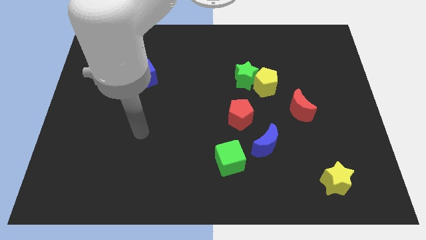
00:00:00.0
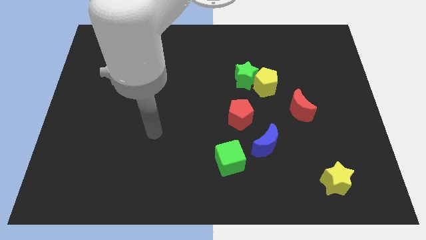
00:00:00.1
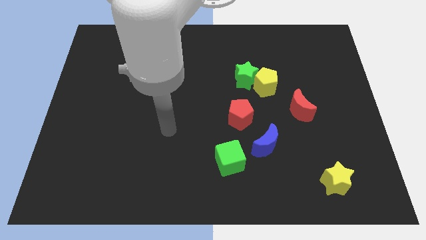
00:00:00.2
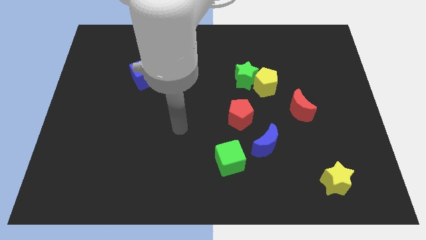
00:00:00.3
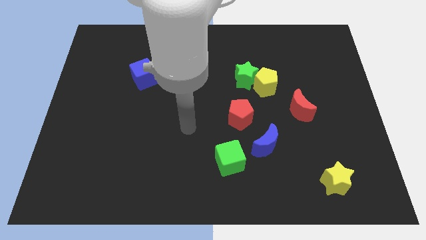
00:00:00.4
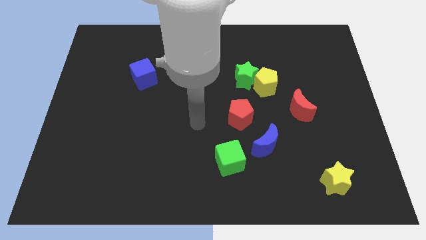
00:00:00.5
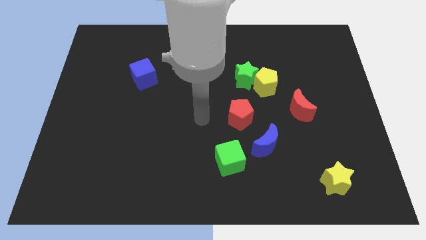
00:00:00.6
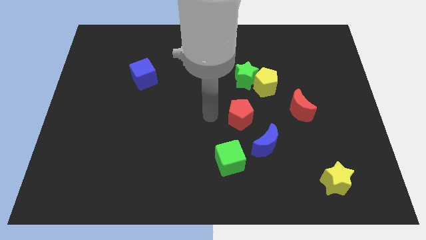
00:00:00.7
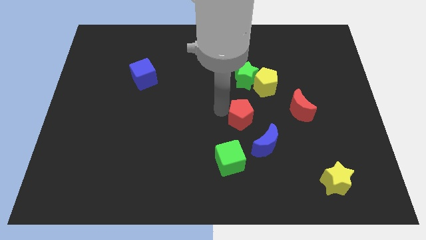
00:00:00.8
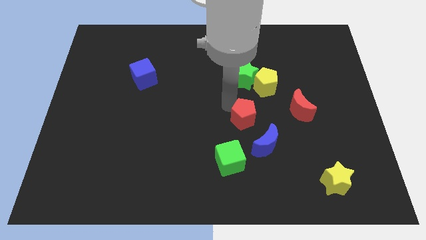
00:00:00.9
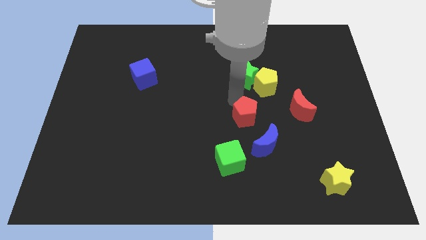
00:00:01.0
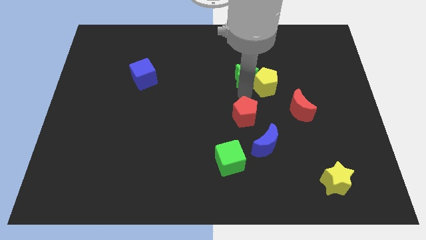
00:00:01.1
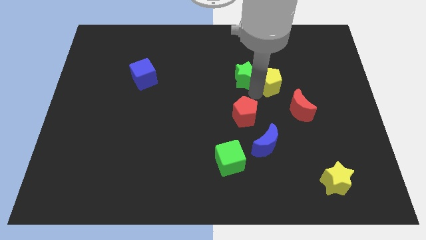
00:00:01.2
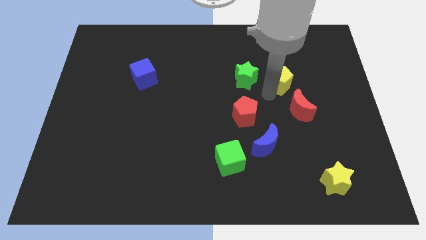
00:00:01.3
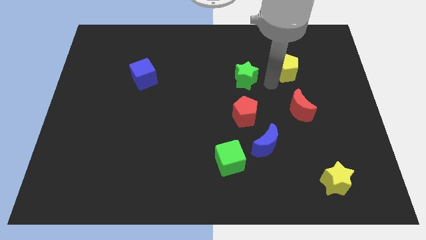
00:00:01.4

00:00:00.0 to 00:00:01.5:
separate the green star from the yellow pentagon

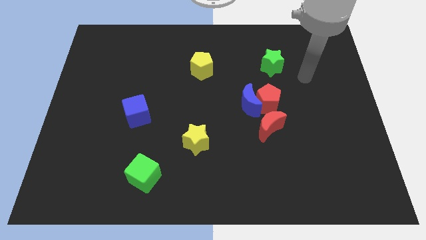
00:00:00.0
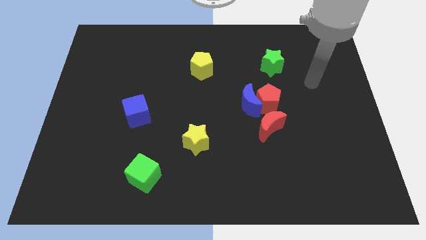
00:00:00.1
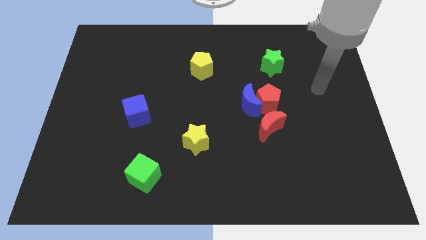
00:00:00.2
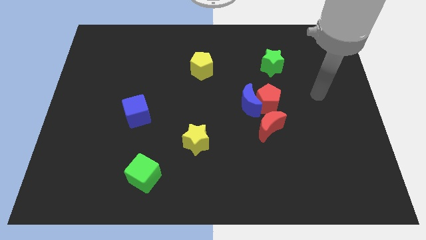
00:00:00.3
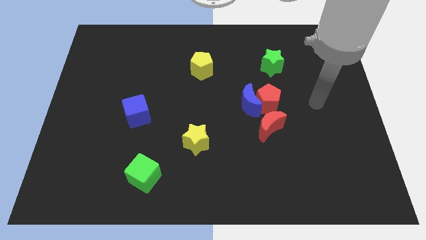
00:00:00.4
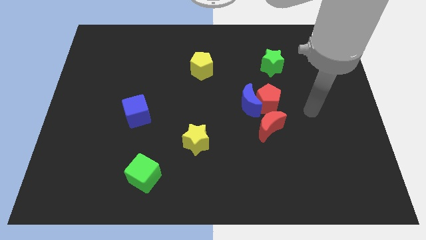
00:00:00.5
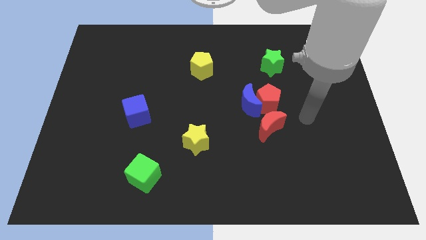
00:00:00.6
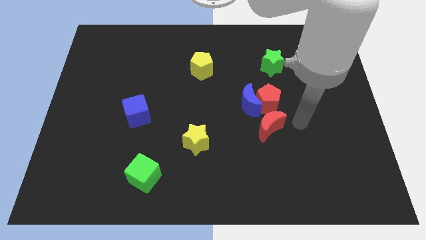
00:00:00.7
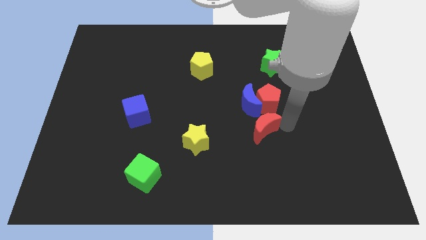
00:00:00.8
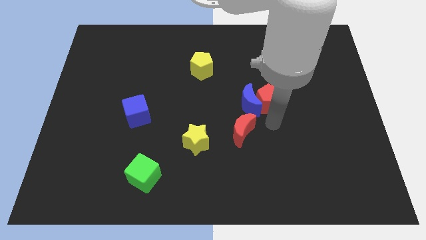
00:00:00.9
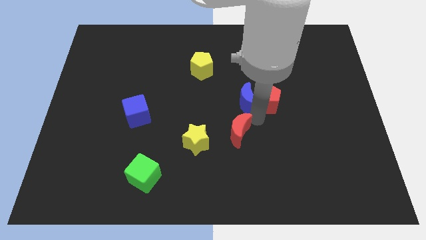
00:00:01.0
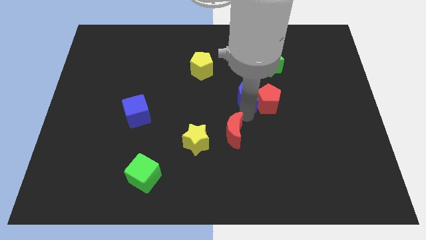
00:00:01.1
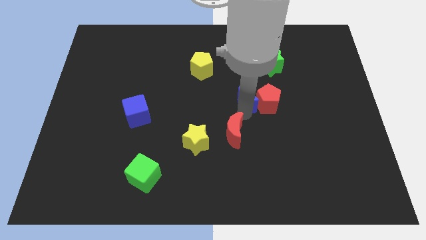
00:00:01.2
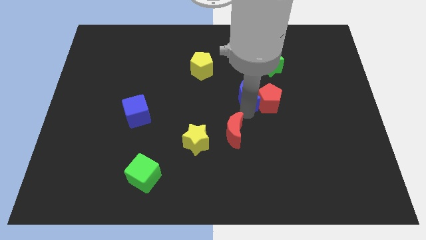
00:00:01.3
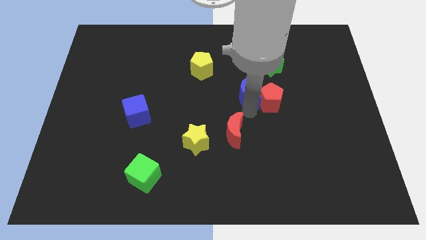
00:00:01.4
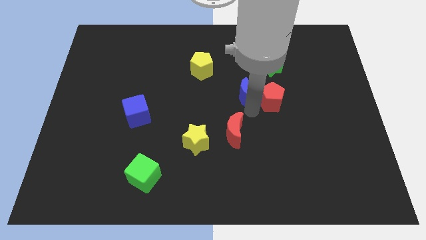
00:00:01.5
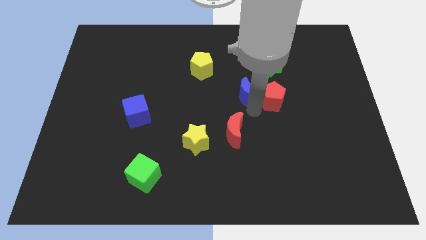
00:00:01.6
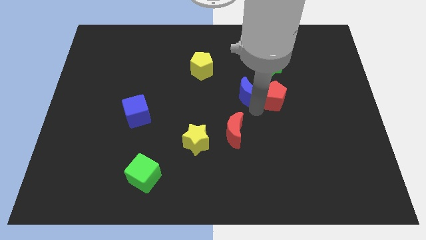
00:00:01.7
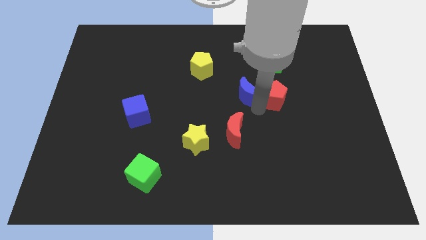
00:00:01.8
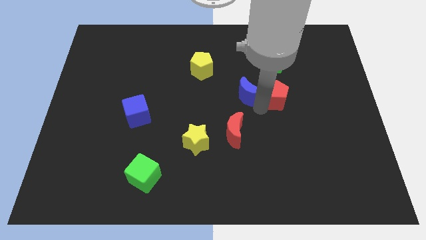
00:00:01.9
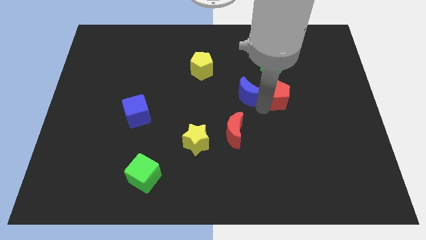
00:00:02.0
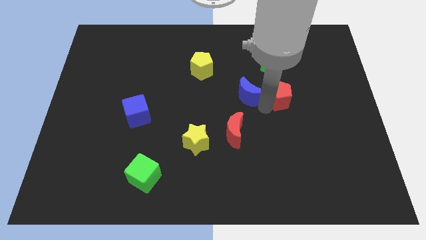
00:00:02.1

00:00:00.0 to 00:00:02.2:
pull the red pentagon apart from the blue moon and red moon

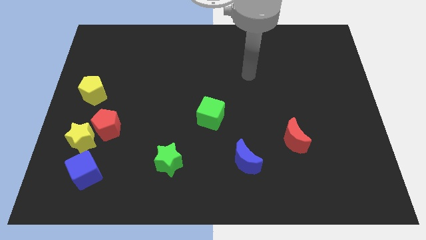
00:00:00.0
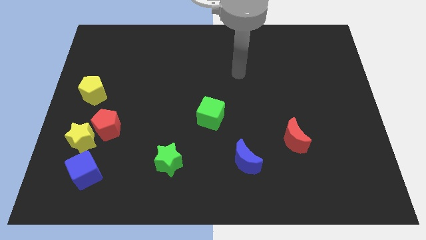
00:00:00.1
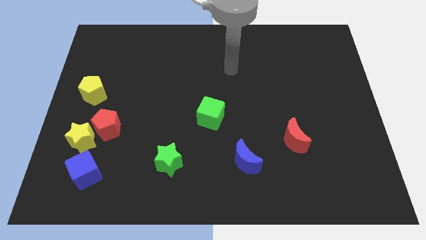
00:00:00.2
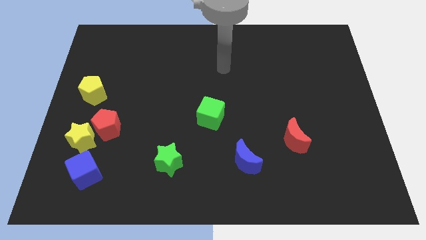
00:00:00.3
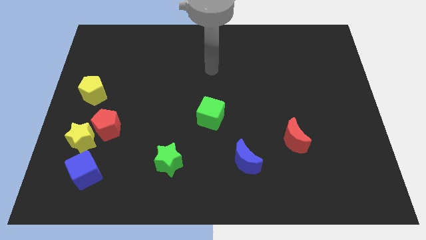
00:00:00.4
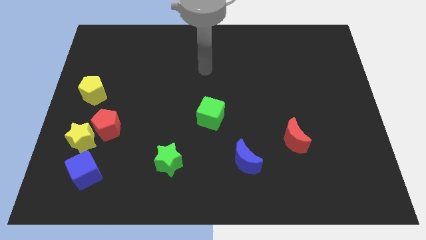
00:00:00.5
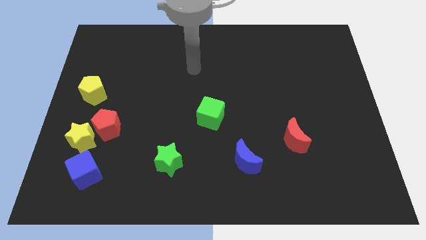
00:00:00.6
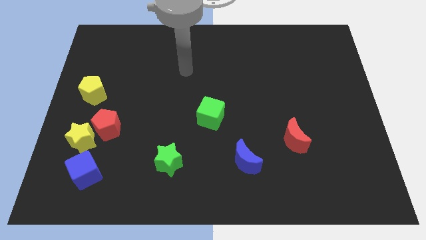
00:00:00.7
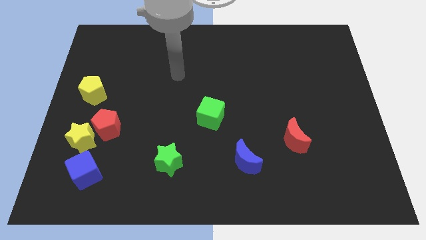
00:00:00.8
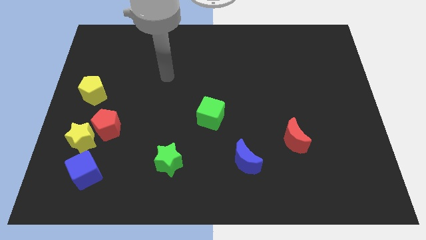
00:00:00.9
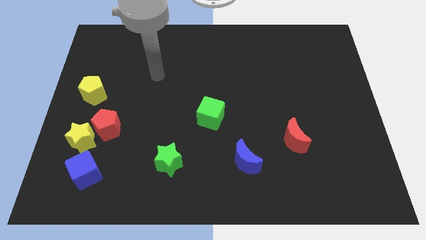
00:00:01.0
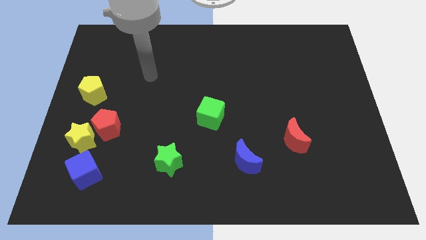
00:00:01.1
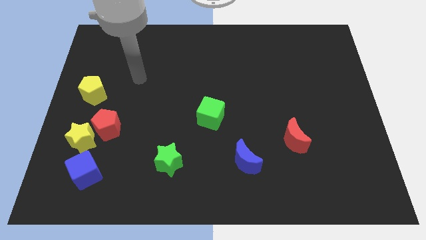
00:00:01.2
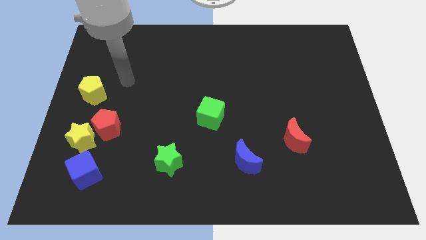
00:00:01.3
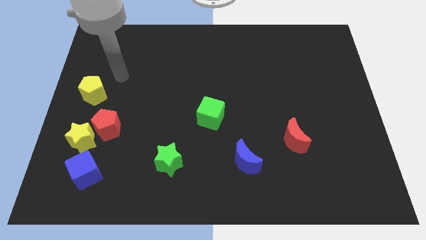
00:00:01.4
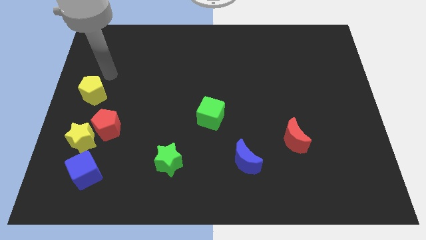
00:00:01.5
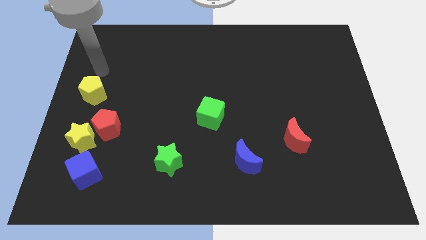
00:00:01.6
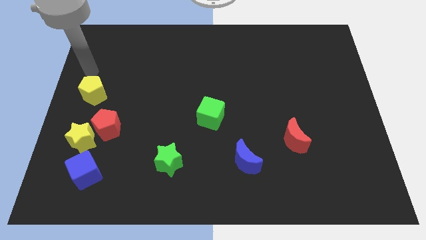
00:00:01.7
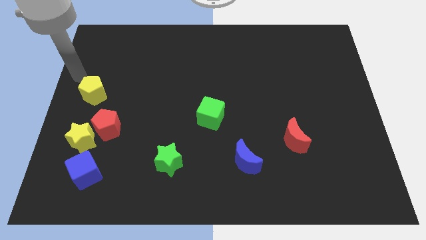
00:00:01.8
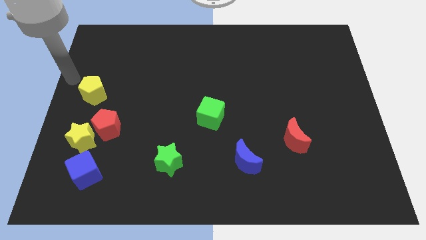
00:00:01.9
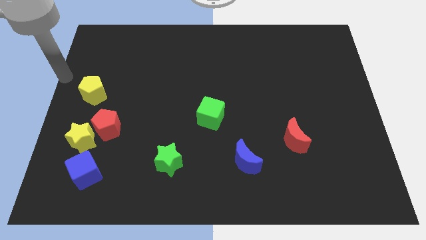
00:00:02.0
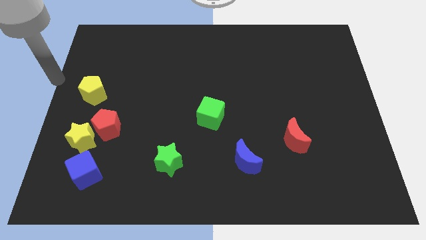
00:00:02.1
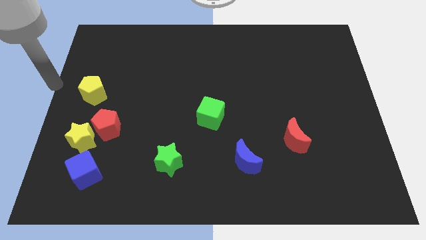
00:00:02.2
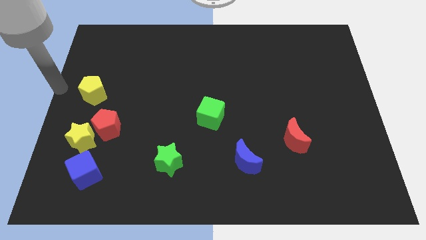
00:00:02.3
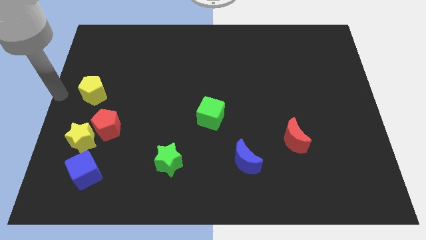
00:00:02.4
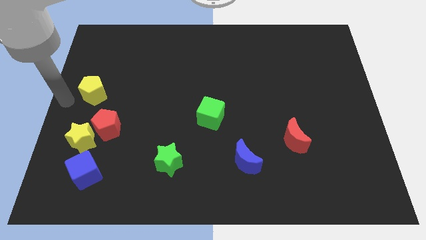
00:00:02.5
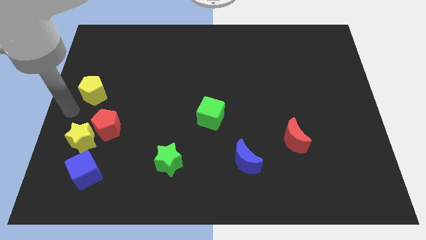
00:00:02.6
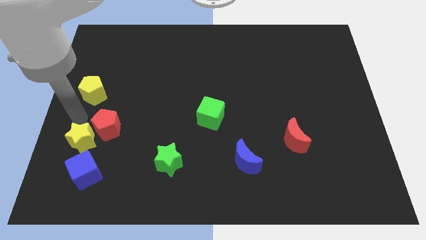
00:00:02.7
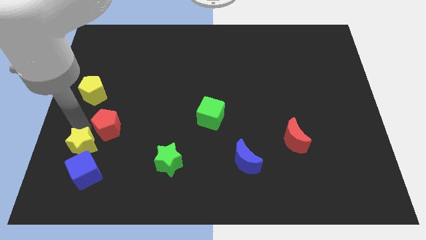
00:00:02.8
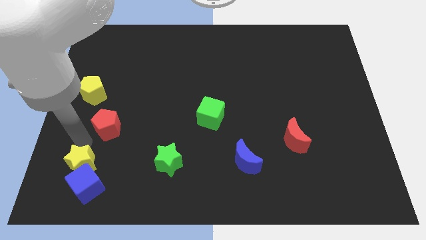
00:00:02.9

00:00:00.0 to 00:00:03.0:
separate the red pentagon from the yellow star

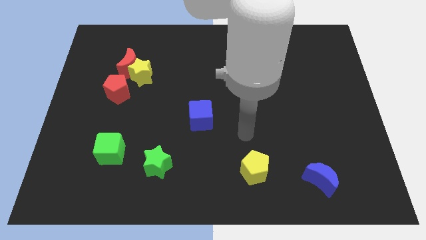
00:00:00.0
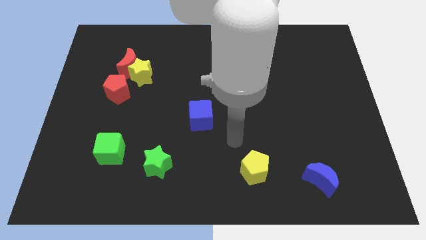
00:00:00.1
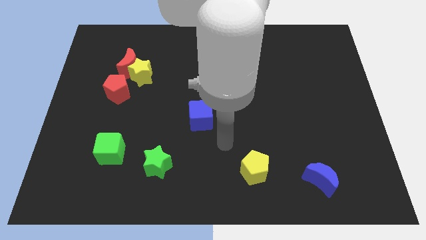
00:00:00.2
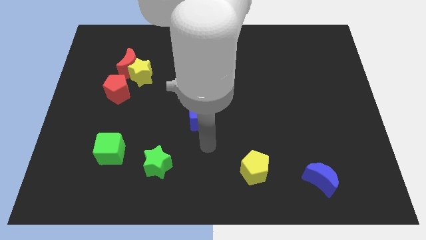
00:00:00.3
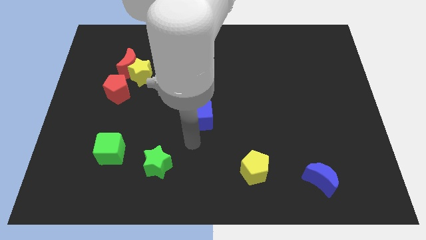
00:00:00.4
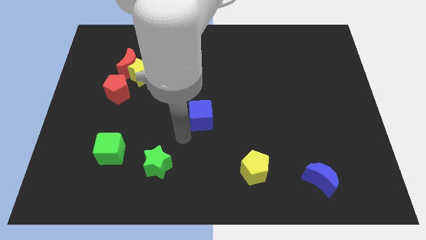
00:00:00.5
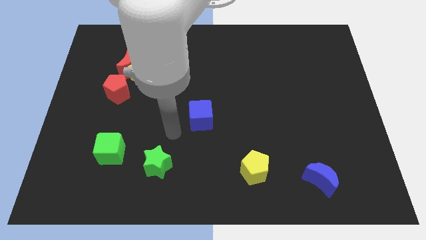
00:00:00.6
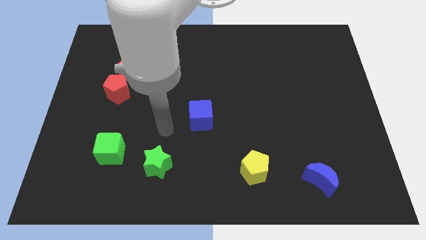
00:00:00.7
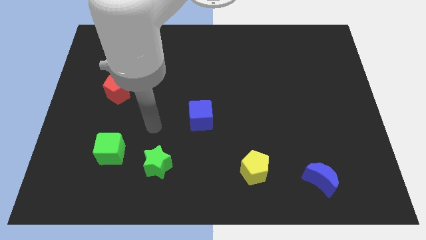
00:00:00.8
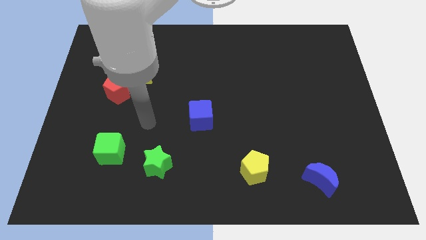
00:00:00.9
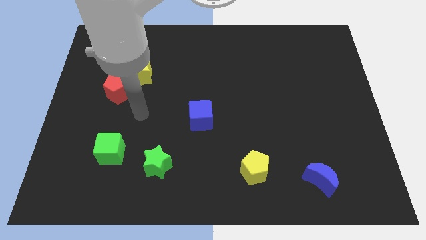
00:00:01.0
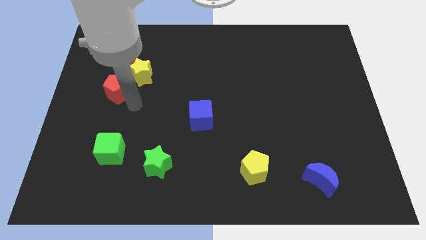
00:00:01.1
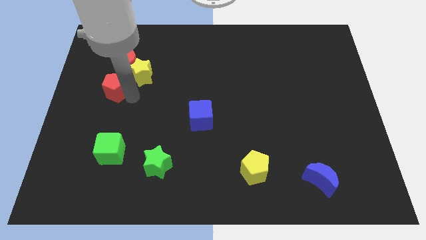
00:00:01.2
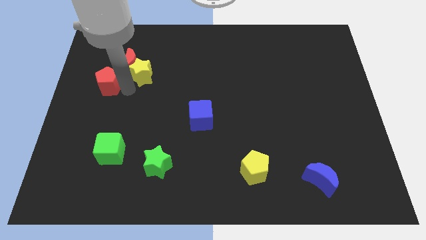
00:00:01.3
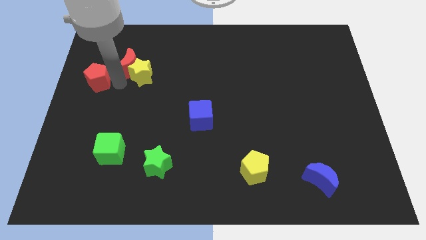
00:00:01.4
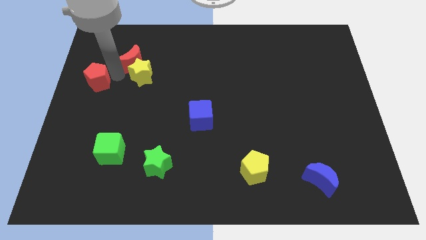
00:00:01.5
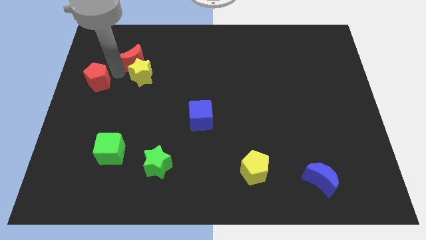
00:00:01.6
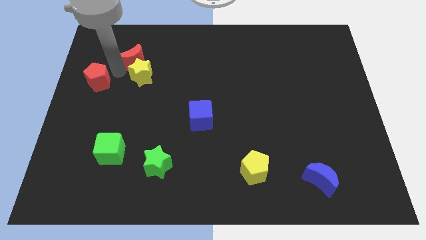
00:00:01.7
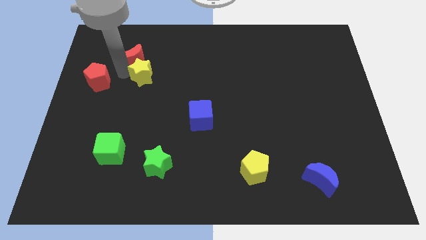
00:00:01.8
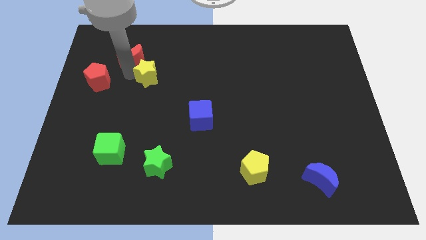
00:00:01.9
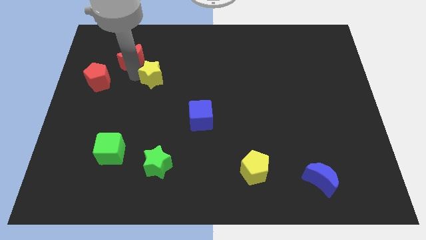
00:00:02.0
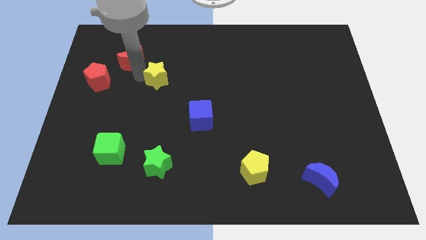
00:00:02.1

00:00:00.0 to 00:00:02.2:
pull the yellow star apart from the red moon and red pentagon

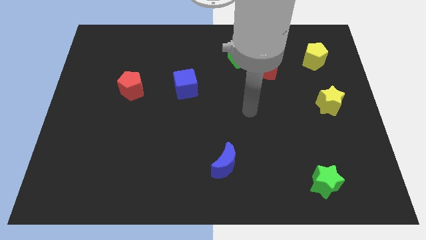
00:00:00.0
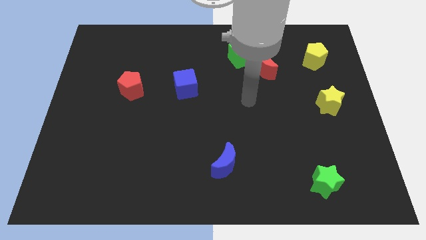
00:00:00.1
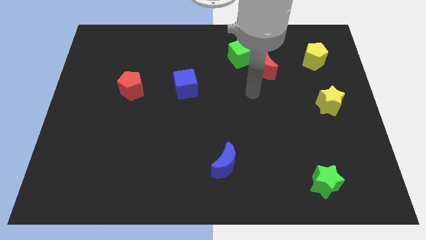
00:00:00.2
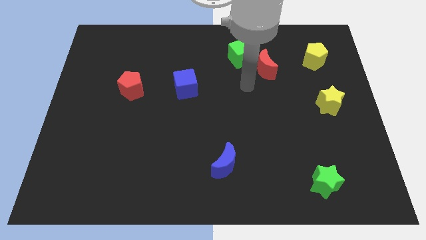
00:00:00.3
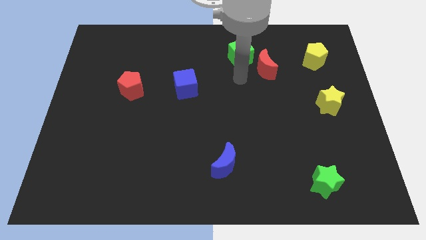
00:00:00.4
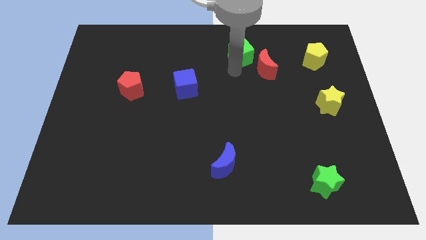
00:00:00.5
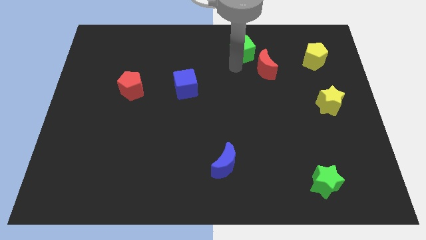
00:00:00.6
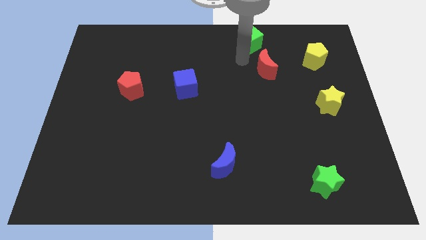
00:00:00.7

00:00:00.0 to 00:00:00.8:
move the red moon away from the green cube
